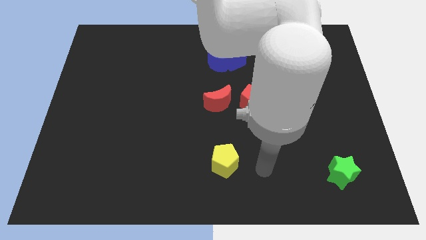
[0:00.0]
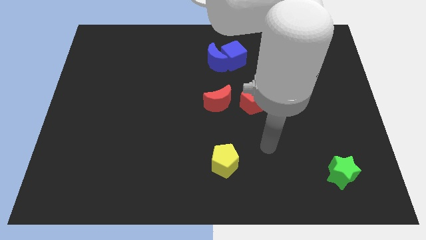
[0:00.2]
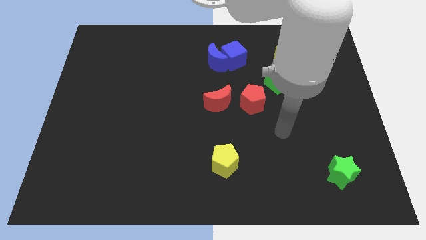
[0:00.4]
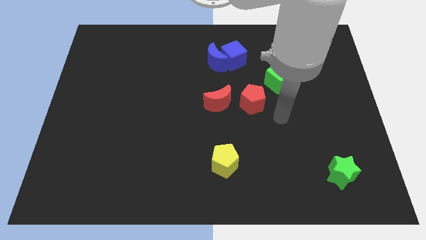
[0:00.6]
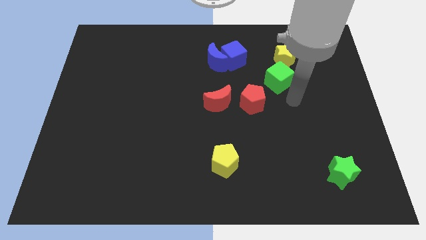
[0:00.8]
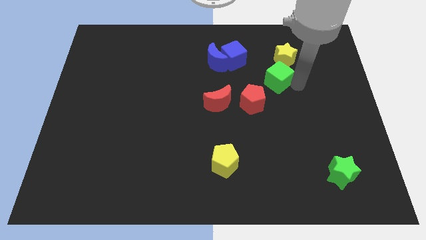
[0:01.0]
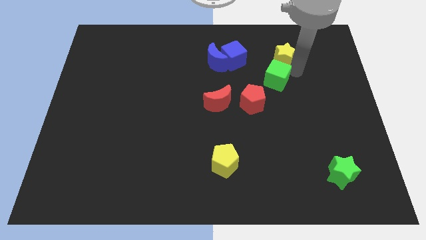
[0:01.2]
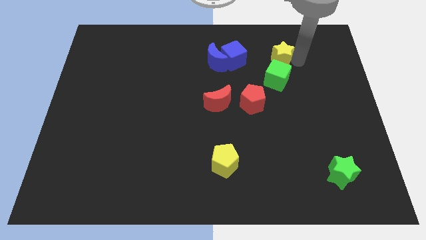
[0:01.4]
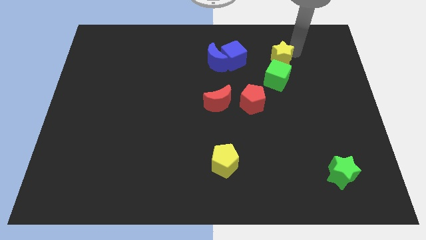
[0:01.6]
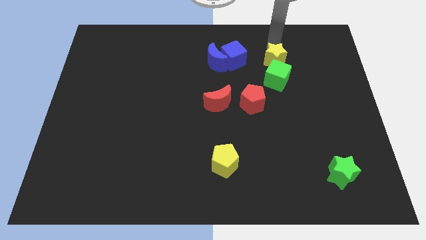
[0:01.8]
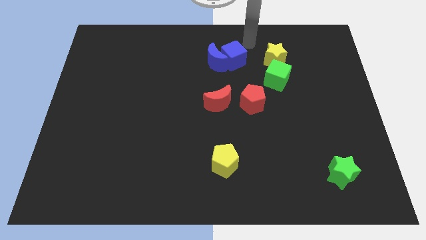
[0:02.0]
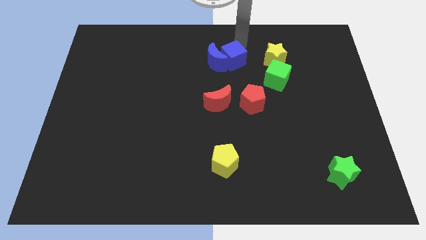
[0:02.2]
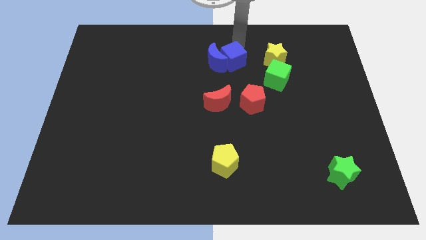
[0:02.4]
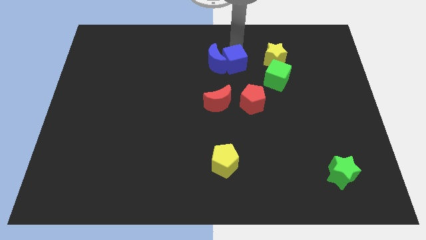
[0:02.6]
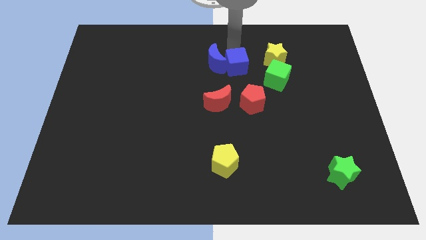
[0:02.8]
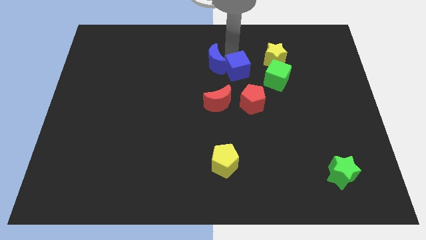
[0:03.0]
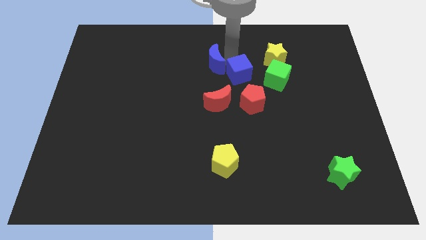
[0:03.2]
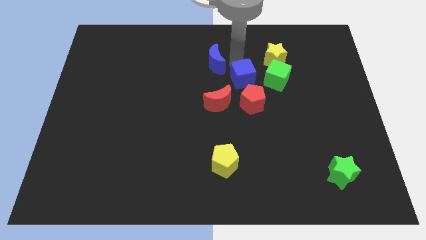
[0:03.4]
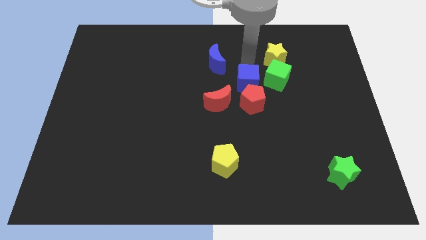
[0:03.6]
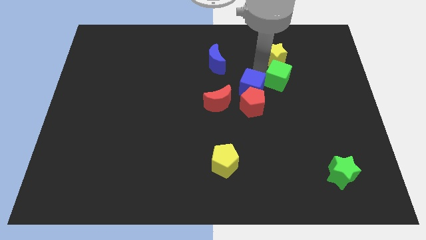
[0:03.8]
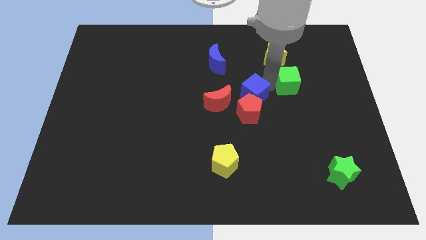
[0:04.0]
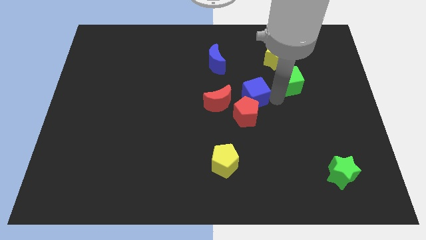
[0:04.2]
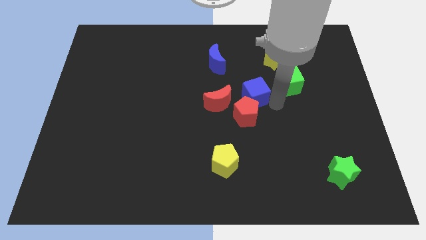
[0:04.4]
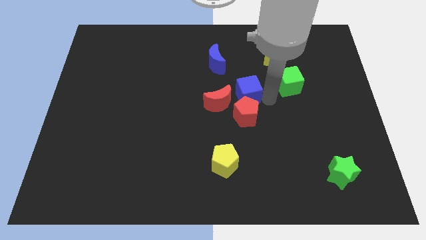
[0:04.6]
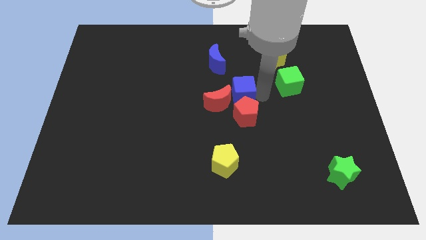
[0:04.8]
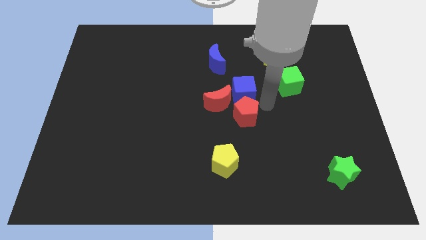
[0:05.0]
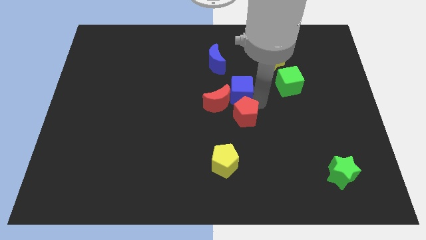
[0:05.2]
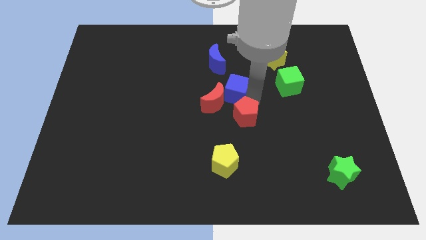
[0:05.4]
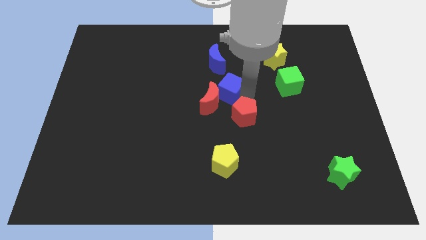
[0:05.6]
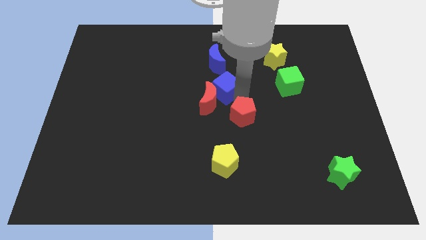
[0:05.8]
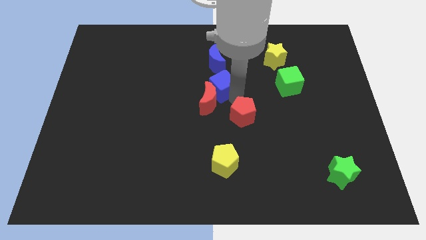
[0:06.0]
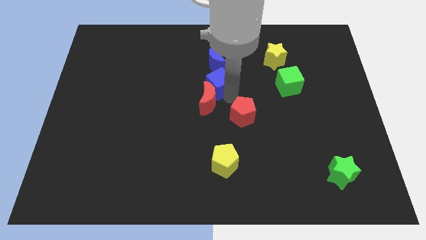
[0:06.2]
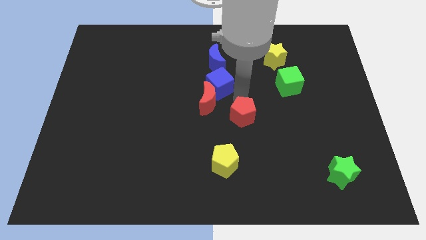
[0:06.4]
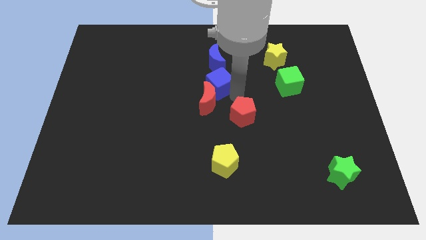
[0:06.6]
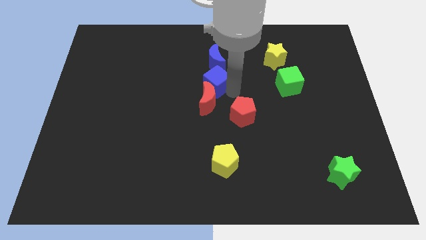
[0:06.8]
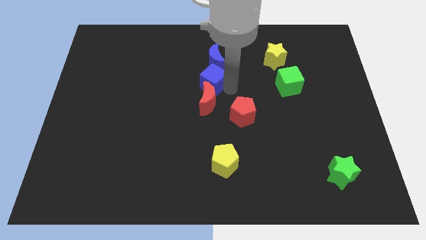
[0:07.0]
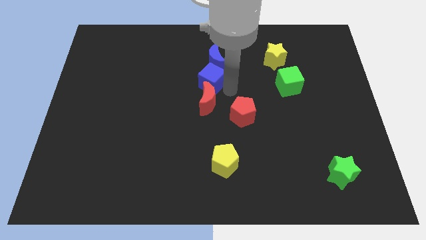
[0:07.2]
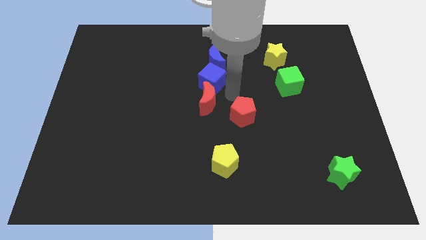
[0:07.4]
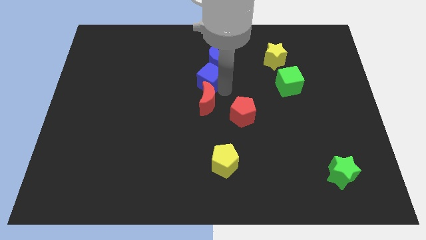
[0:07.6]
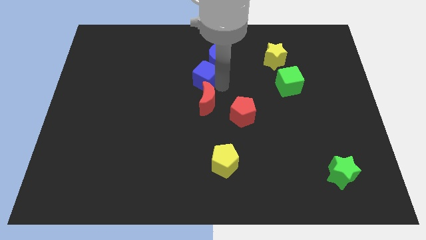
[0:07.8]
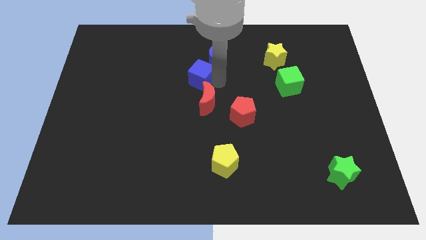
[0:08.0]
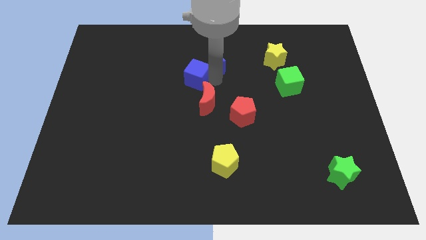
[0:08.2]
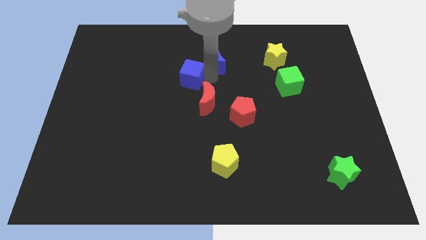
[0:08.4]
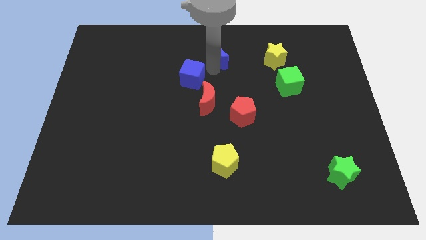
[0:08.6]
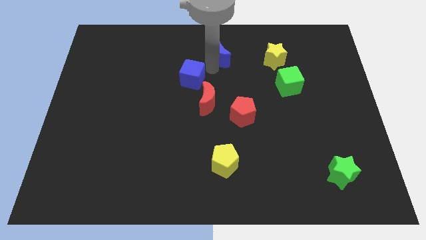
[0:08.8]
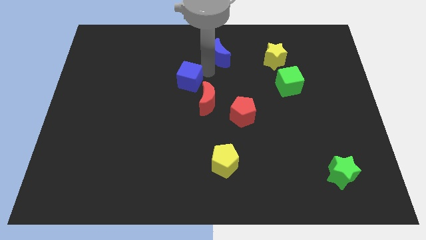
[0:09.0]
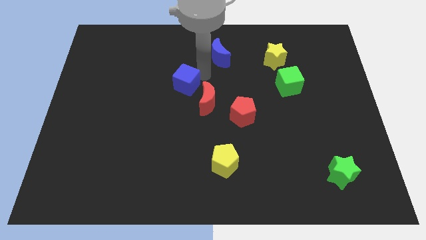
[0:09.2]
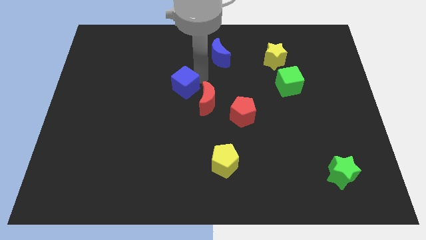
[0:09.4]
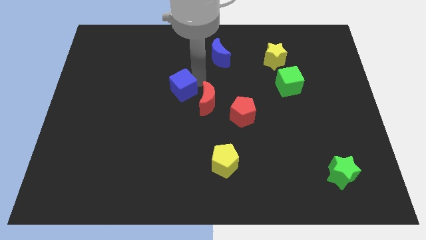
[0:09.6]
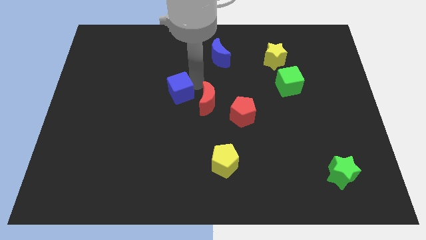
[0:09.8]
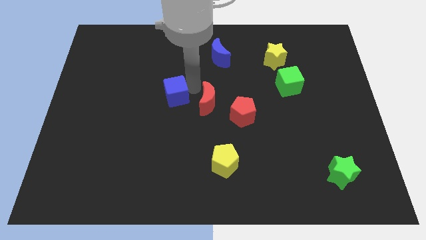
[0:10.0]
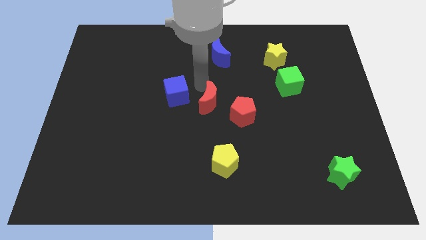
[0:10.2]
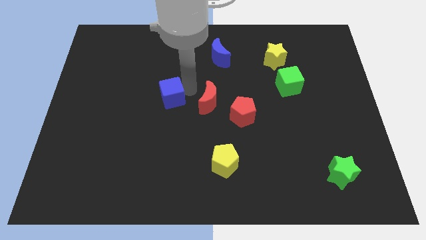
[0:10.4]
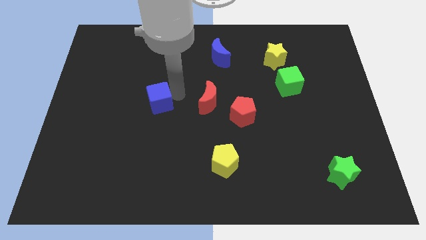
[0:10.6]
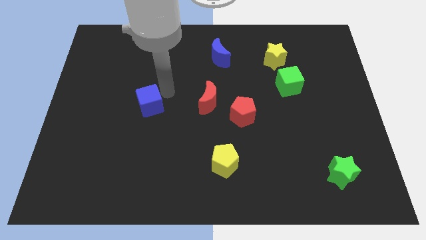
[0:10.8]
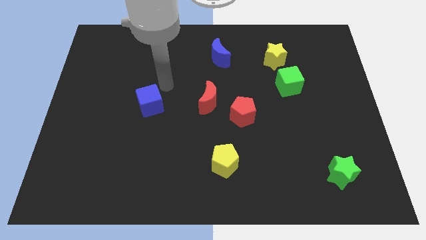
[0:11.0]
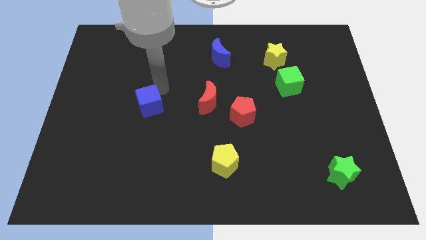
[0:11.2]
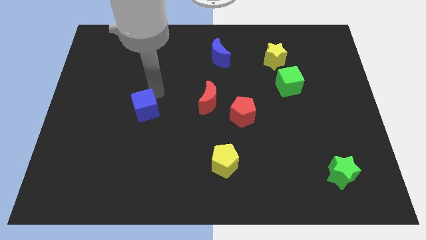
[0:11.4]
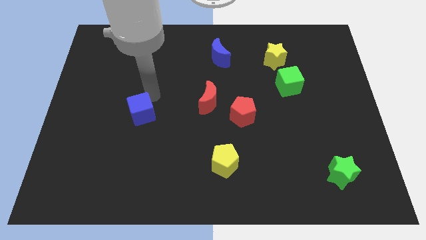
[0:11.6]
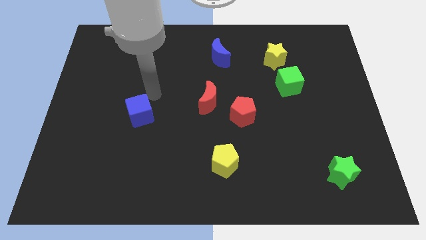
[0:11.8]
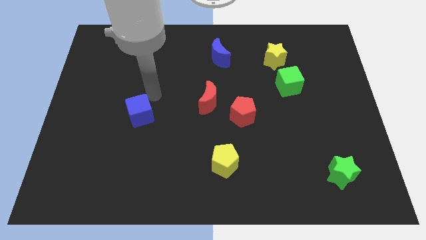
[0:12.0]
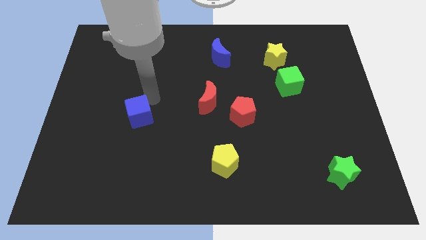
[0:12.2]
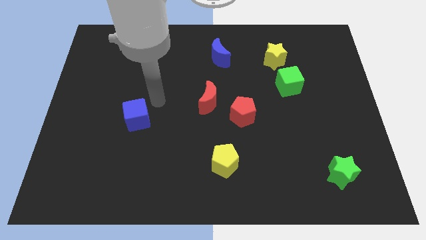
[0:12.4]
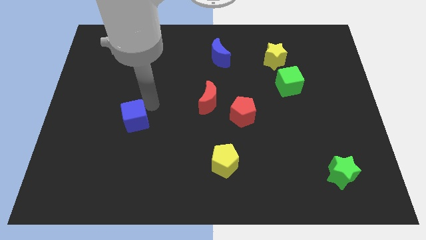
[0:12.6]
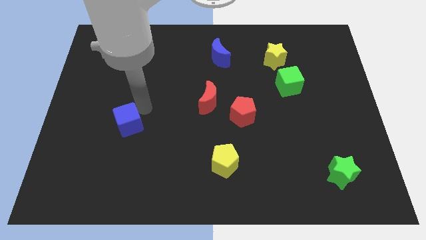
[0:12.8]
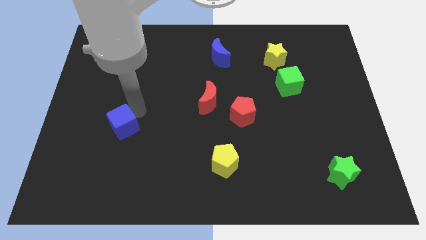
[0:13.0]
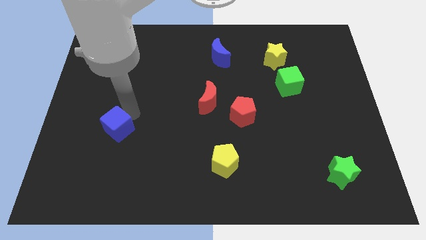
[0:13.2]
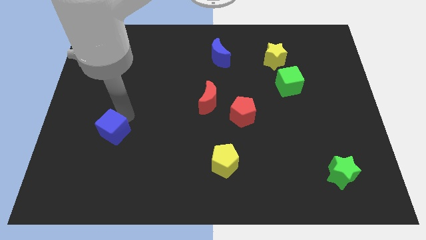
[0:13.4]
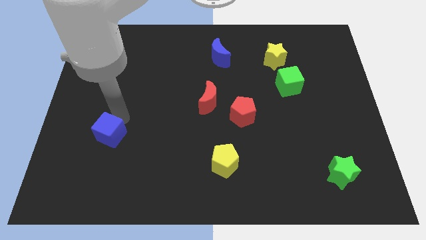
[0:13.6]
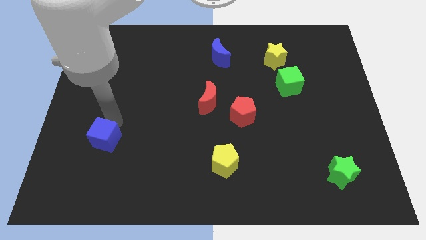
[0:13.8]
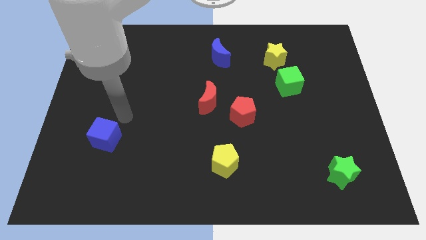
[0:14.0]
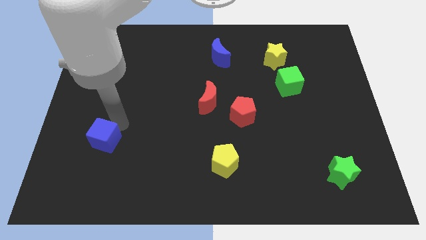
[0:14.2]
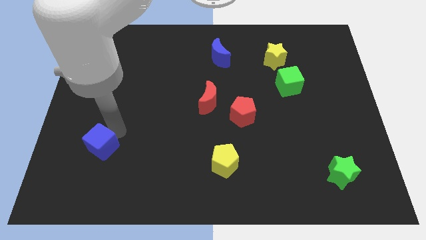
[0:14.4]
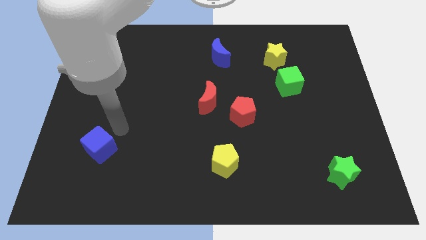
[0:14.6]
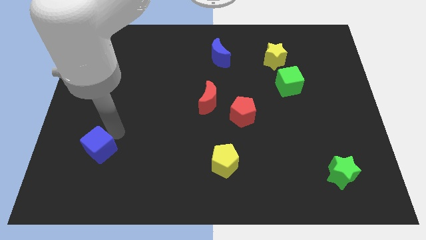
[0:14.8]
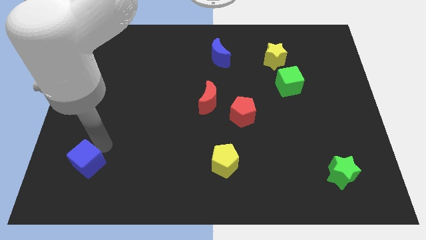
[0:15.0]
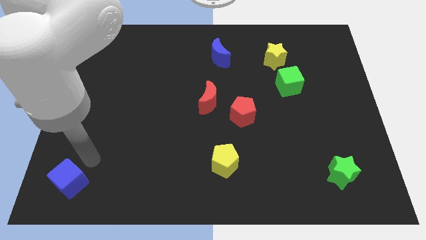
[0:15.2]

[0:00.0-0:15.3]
push the blue cube to the bottom left corner
